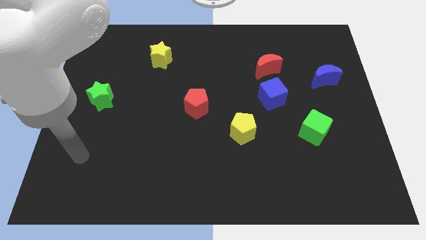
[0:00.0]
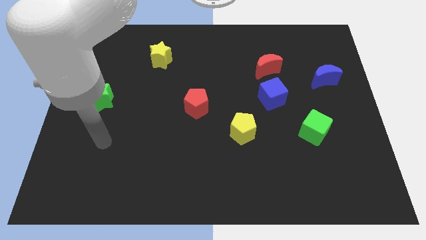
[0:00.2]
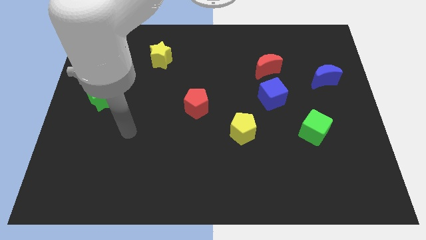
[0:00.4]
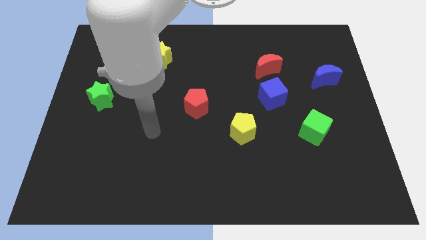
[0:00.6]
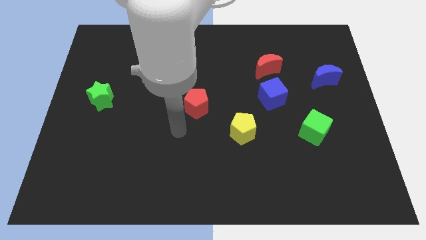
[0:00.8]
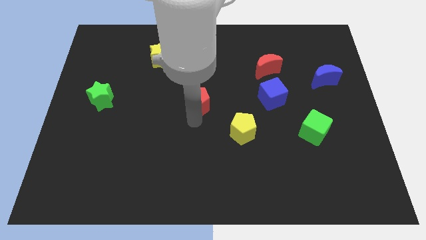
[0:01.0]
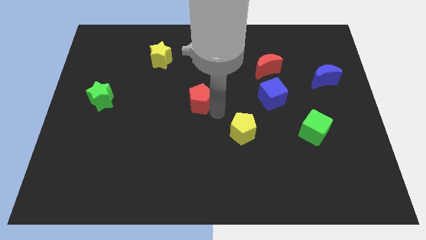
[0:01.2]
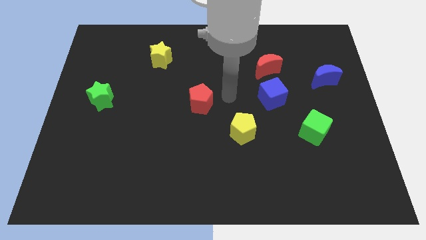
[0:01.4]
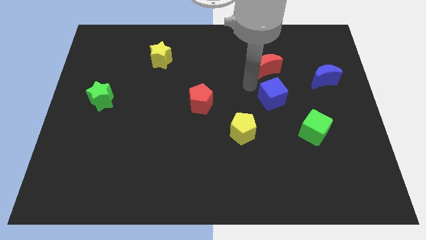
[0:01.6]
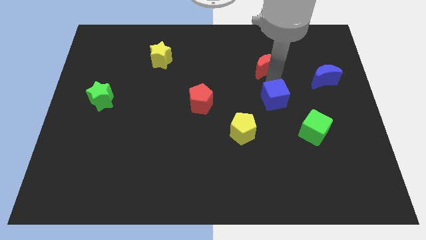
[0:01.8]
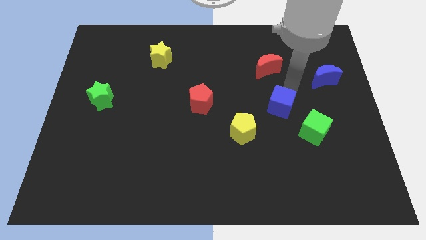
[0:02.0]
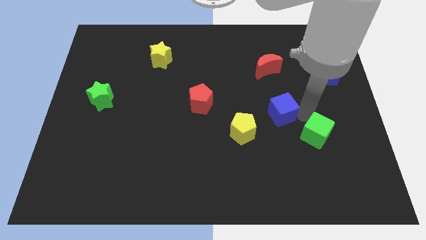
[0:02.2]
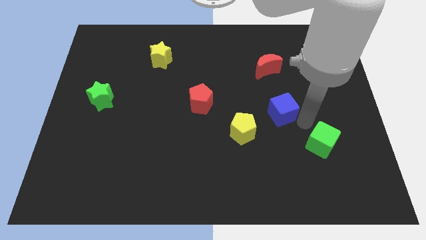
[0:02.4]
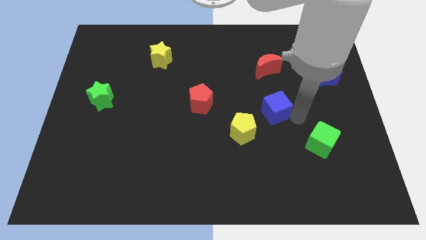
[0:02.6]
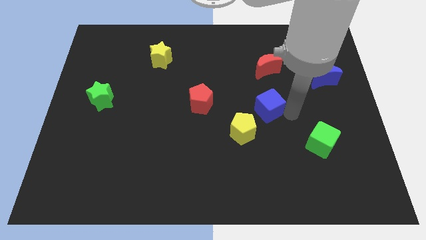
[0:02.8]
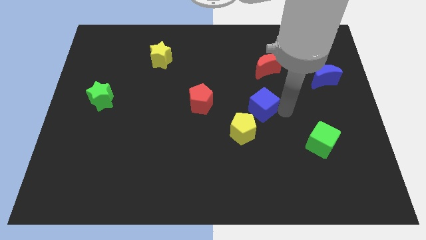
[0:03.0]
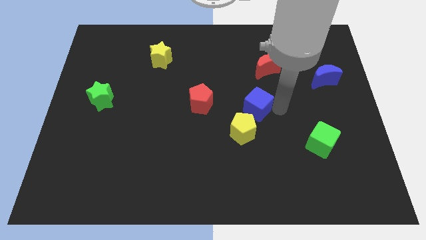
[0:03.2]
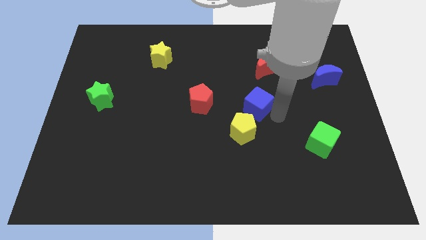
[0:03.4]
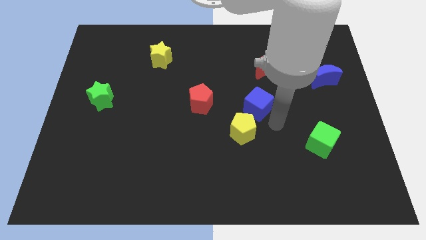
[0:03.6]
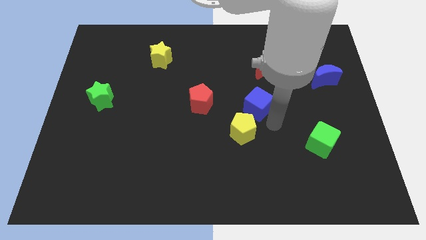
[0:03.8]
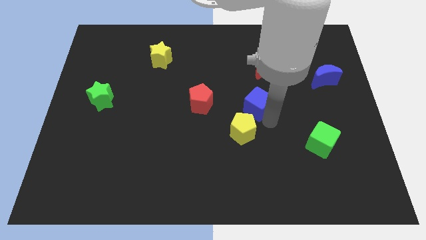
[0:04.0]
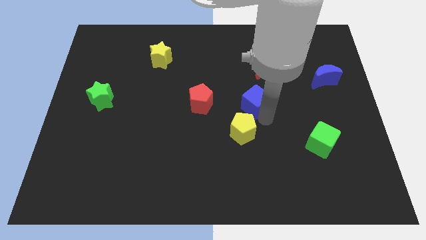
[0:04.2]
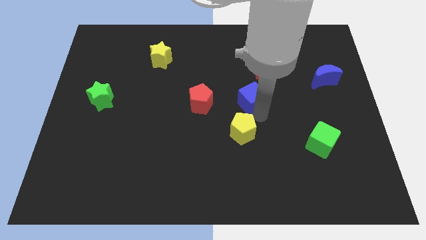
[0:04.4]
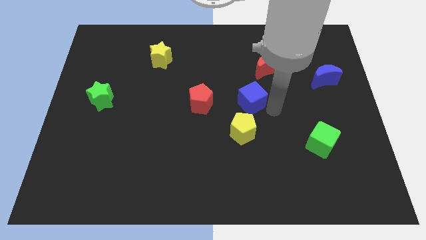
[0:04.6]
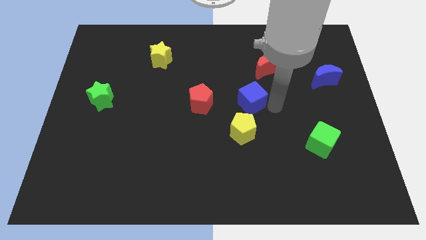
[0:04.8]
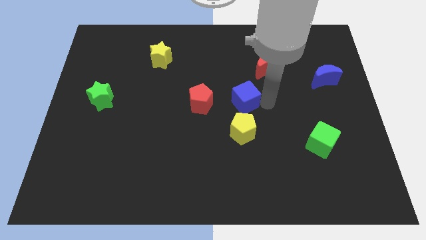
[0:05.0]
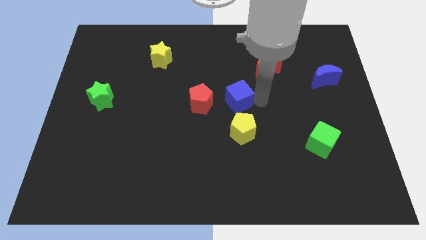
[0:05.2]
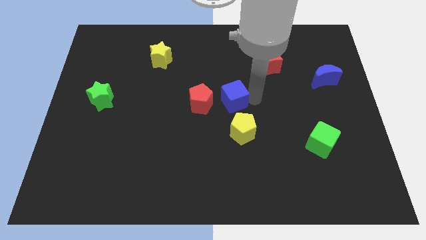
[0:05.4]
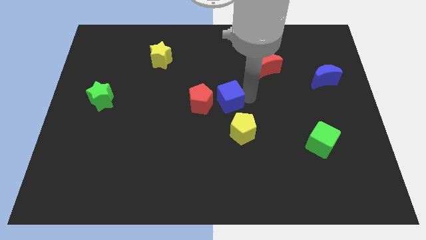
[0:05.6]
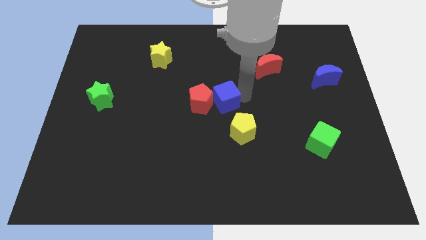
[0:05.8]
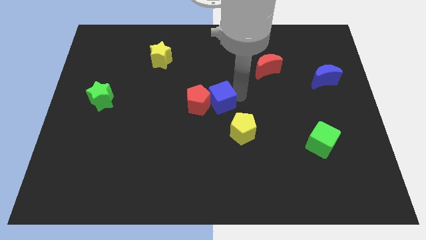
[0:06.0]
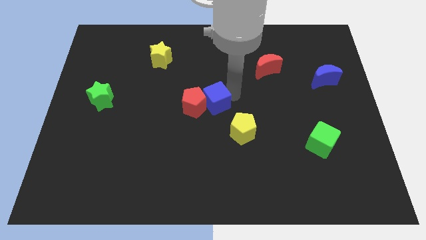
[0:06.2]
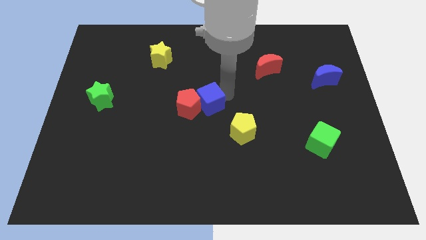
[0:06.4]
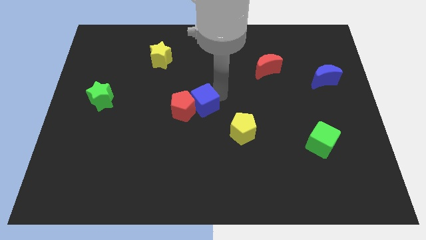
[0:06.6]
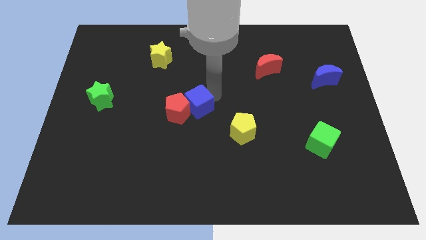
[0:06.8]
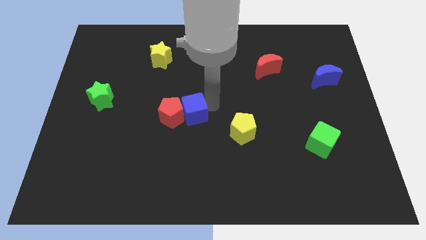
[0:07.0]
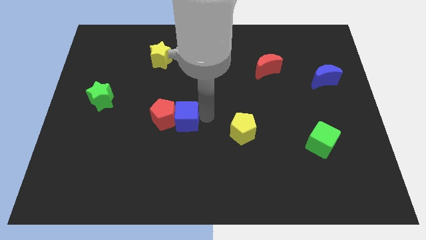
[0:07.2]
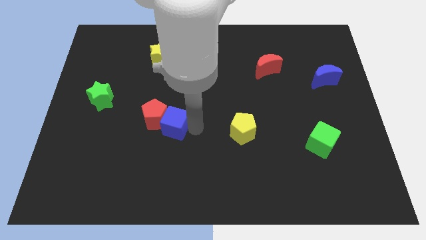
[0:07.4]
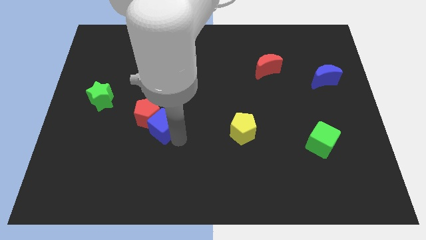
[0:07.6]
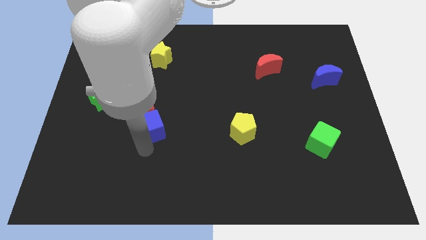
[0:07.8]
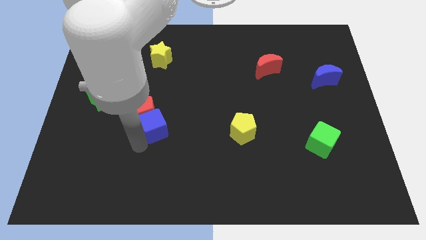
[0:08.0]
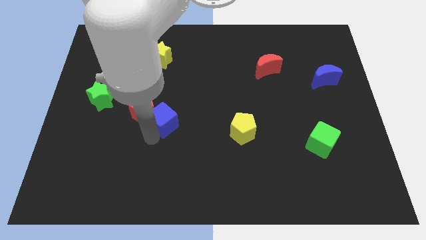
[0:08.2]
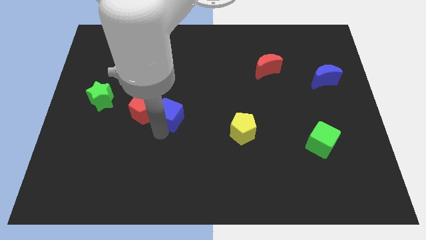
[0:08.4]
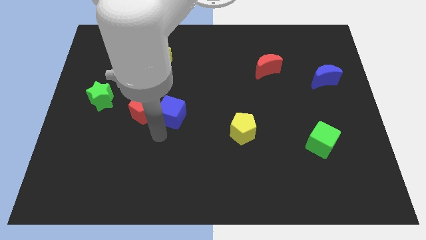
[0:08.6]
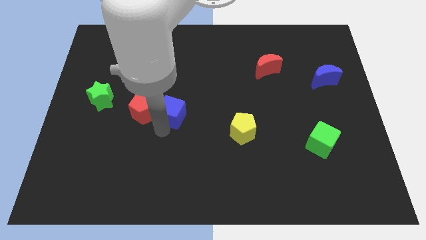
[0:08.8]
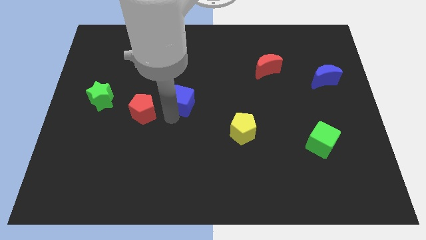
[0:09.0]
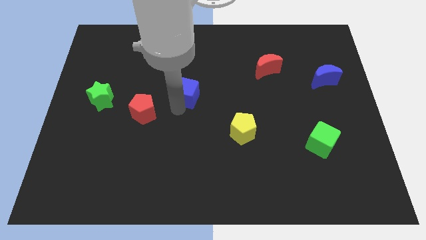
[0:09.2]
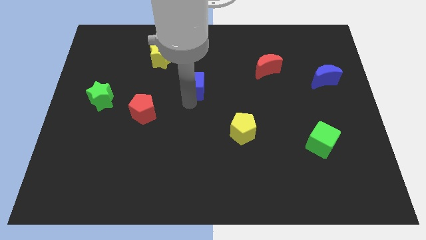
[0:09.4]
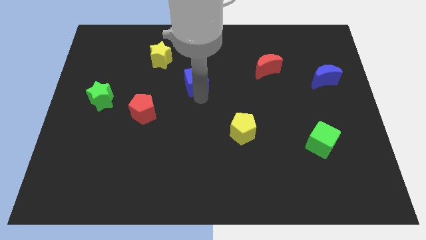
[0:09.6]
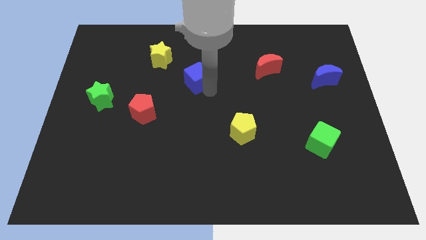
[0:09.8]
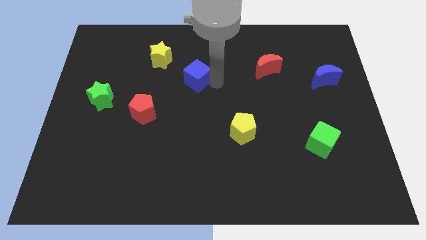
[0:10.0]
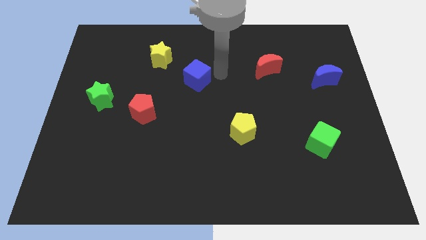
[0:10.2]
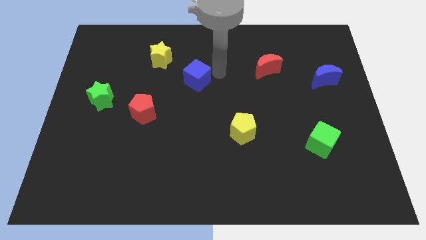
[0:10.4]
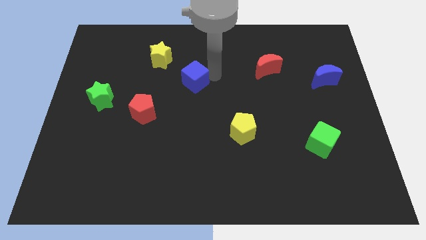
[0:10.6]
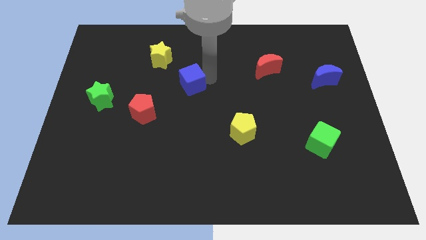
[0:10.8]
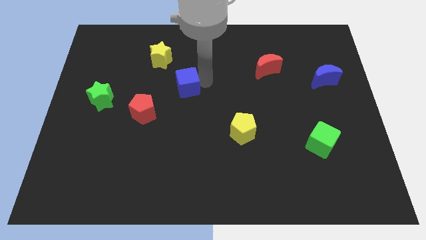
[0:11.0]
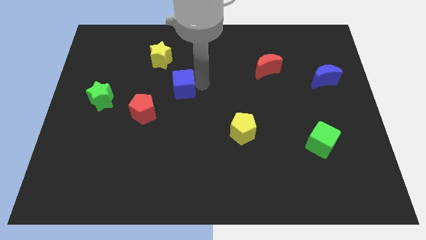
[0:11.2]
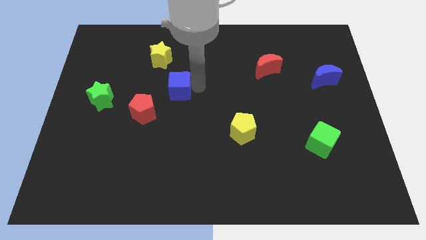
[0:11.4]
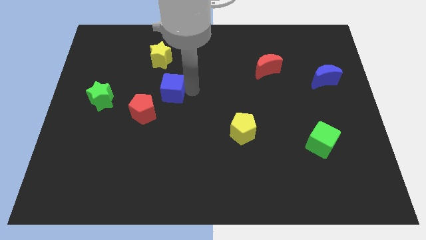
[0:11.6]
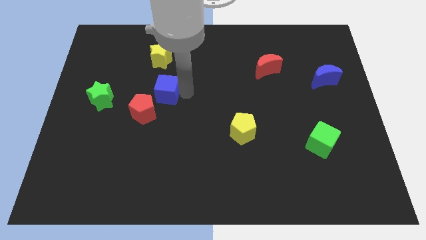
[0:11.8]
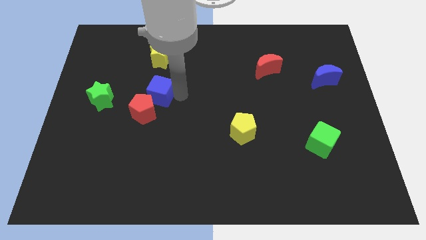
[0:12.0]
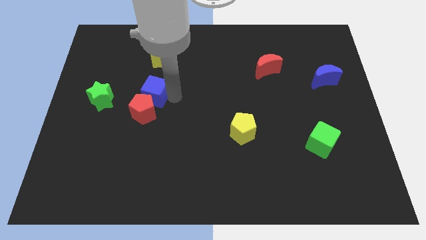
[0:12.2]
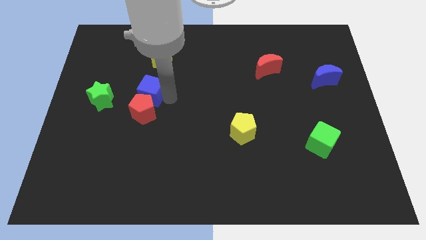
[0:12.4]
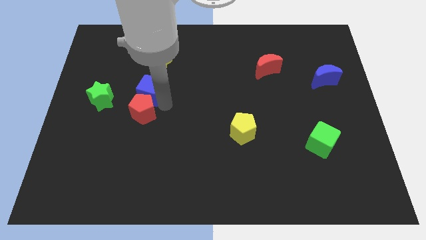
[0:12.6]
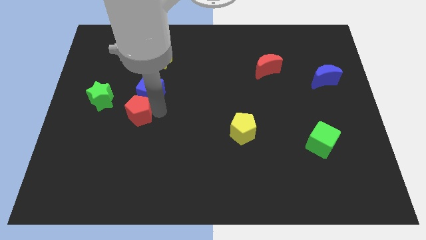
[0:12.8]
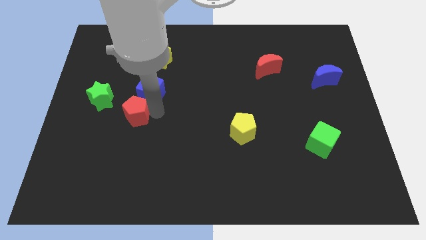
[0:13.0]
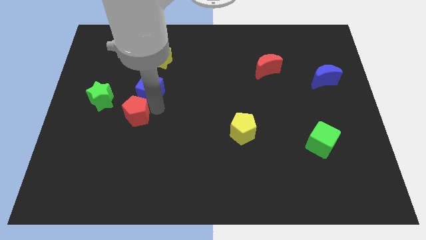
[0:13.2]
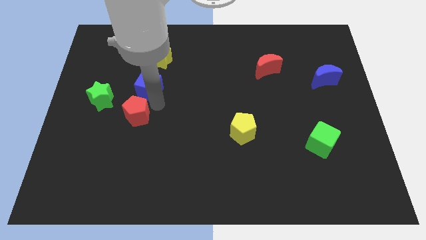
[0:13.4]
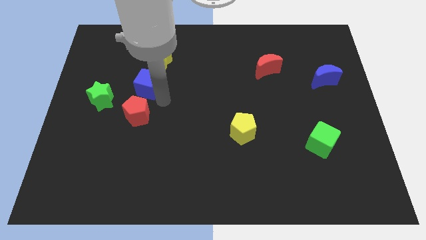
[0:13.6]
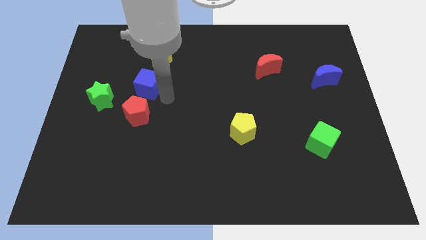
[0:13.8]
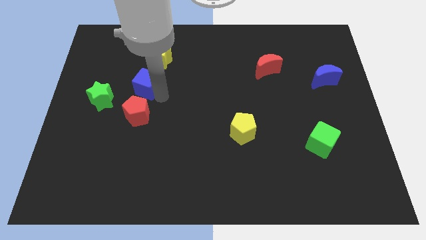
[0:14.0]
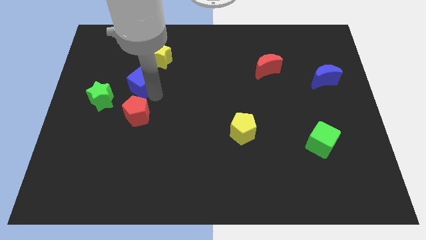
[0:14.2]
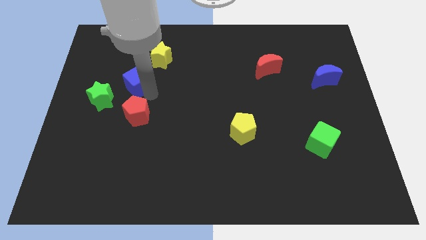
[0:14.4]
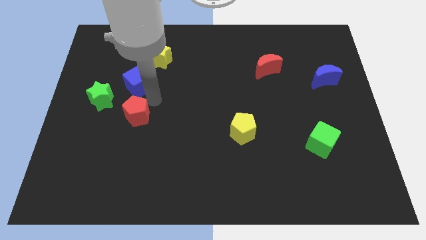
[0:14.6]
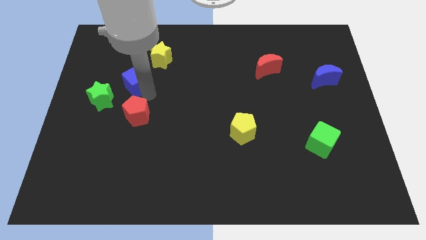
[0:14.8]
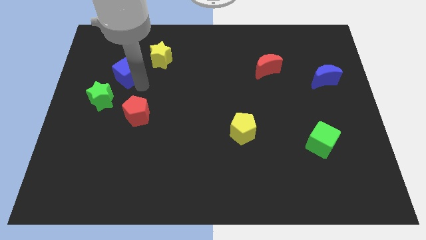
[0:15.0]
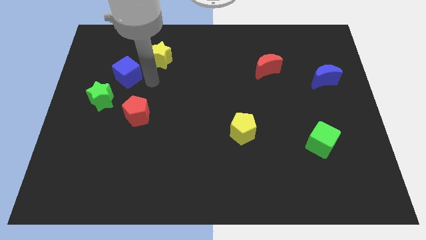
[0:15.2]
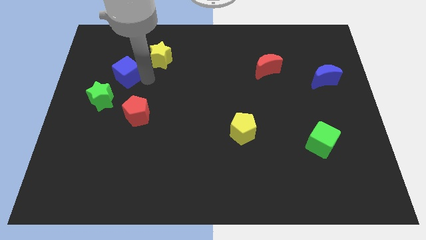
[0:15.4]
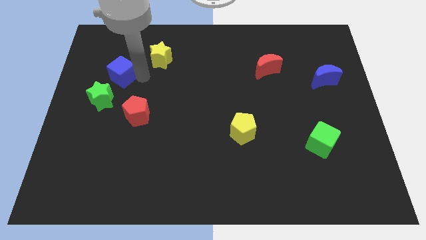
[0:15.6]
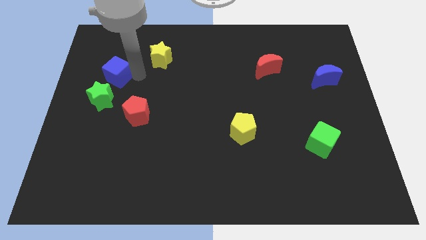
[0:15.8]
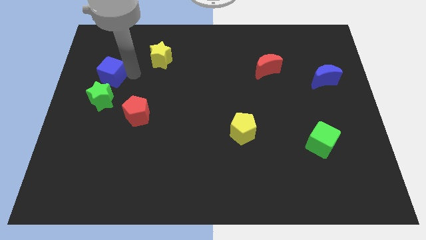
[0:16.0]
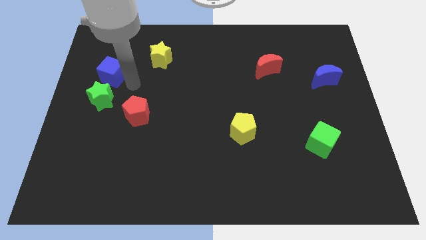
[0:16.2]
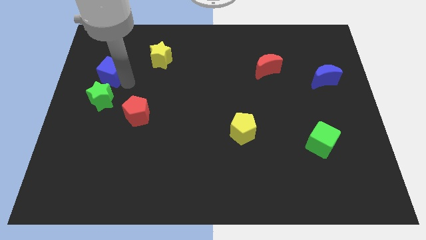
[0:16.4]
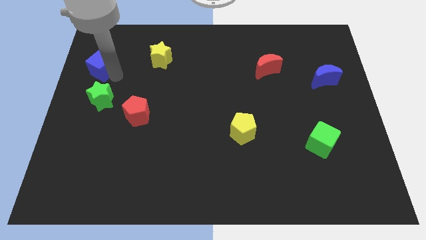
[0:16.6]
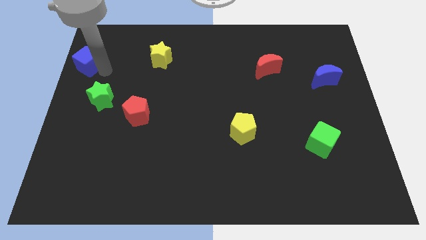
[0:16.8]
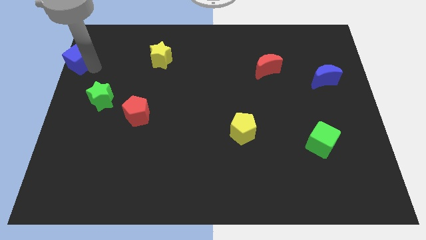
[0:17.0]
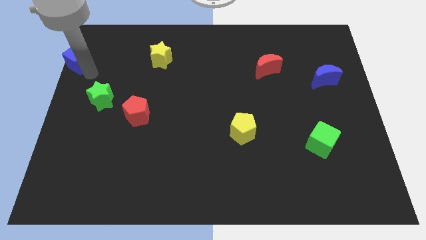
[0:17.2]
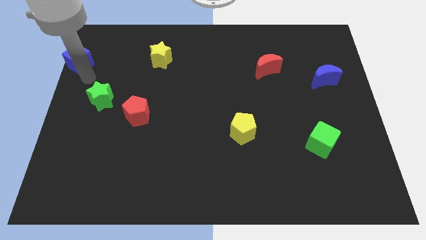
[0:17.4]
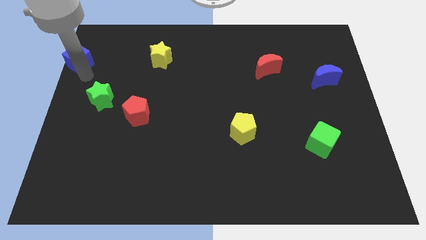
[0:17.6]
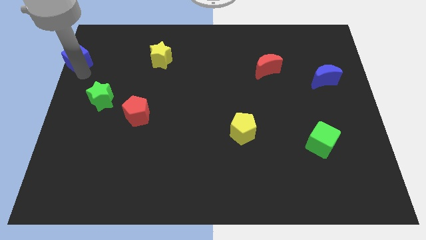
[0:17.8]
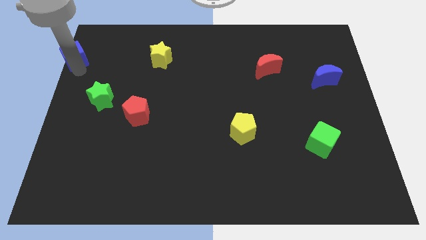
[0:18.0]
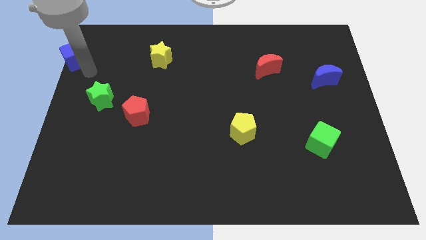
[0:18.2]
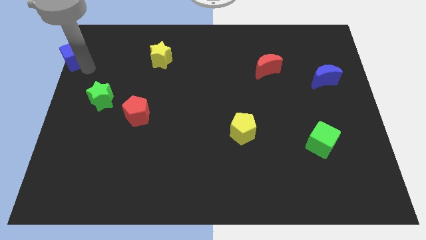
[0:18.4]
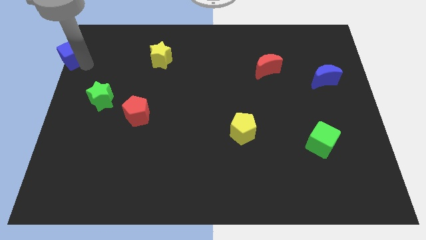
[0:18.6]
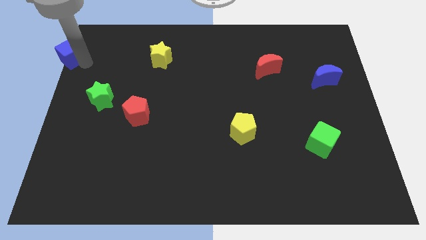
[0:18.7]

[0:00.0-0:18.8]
push the blue cube to the upper left corner
